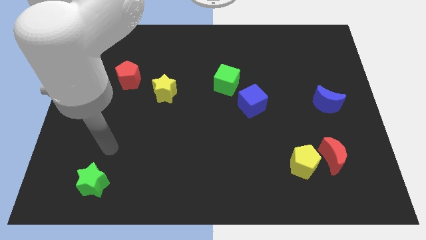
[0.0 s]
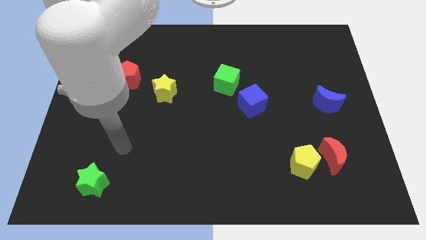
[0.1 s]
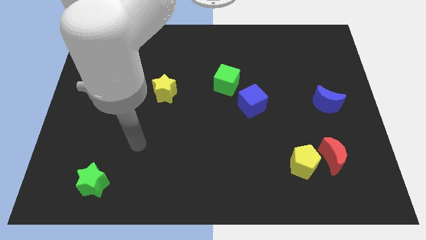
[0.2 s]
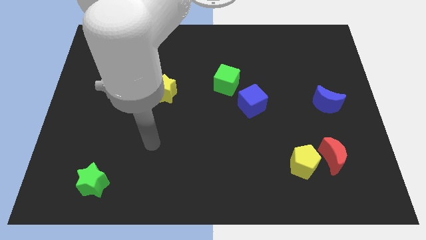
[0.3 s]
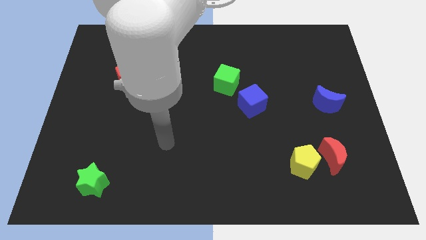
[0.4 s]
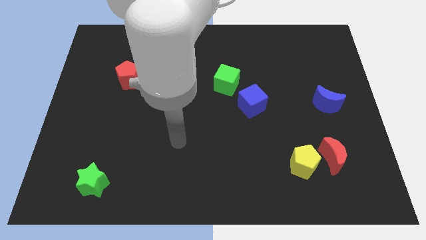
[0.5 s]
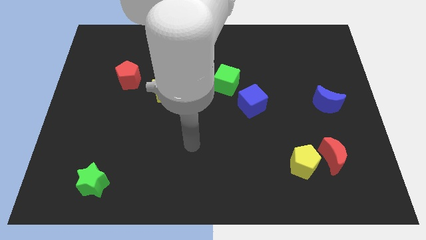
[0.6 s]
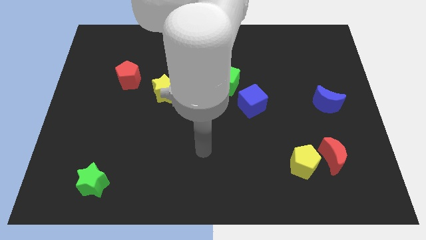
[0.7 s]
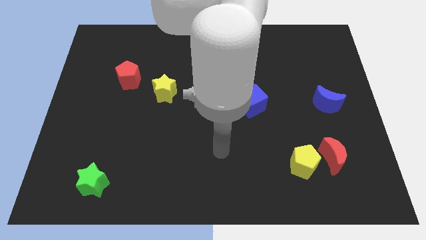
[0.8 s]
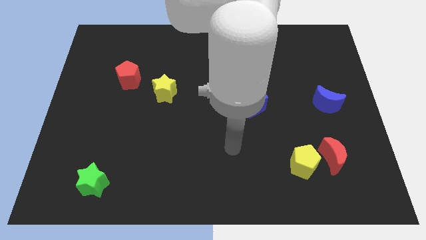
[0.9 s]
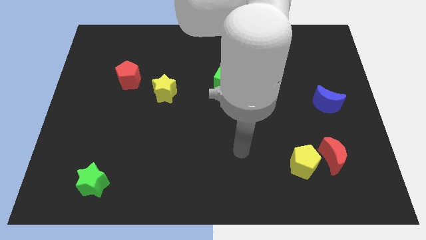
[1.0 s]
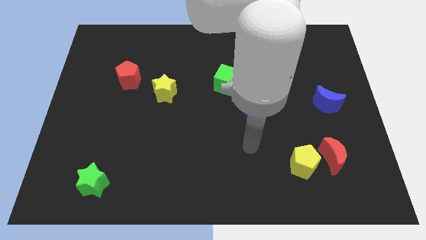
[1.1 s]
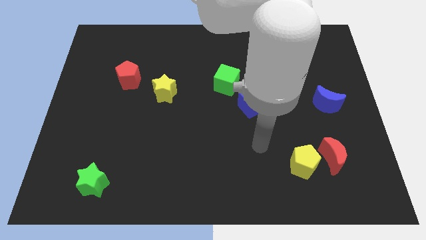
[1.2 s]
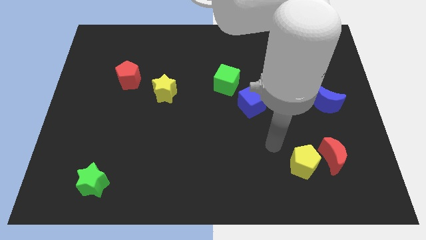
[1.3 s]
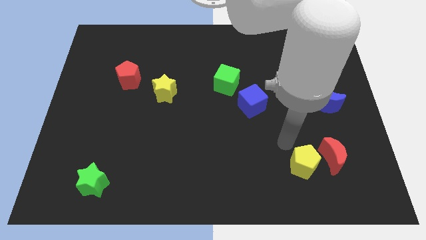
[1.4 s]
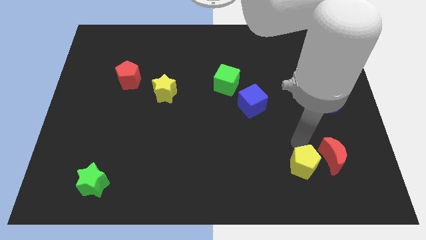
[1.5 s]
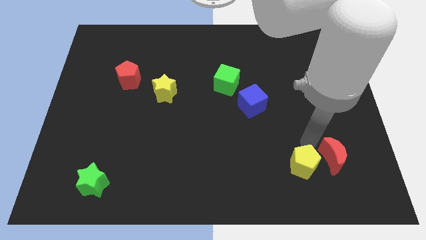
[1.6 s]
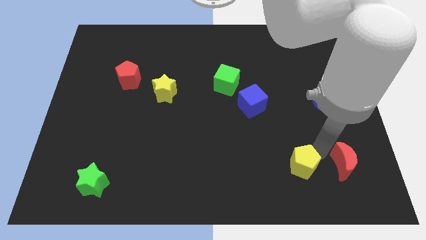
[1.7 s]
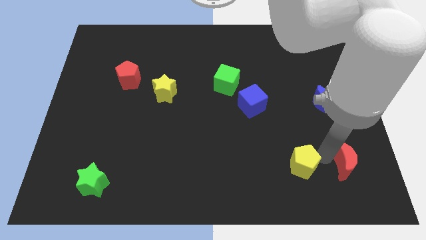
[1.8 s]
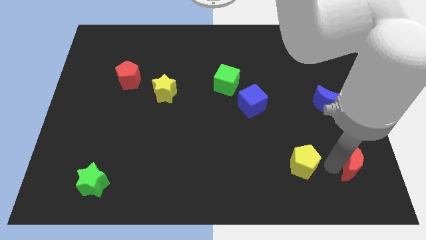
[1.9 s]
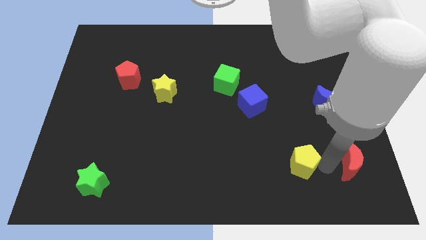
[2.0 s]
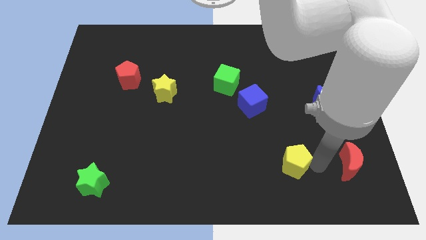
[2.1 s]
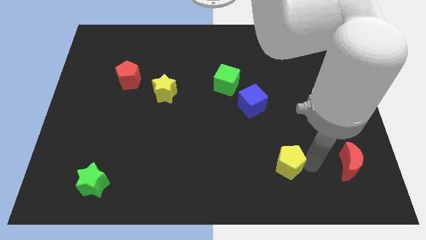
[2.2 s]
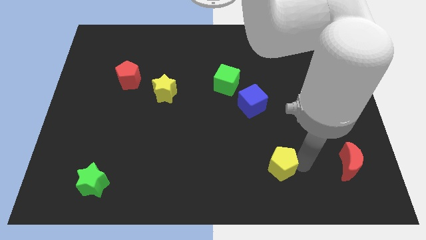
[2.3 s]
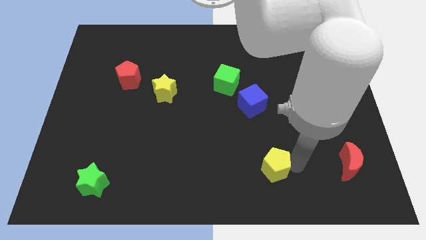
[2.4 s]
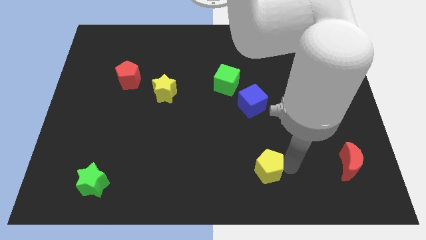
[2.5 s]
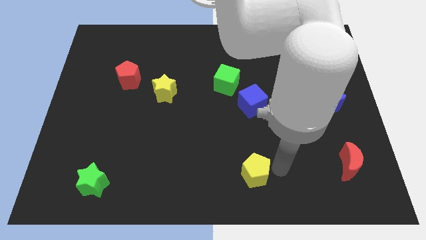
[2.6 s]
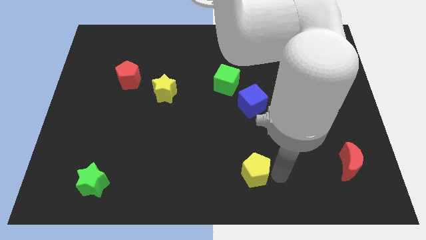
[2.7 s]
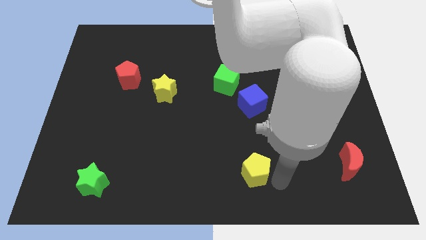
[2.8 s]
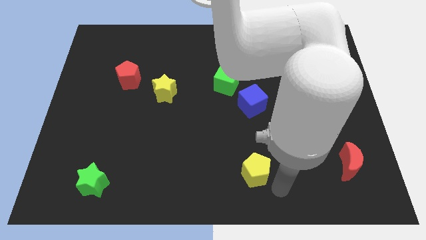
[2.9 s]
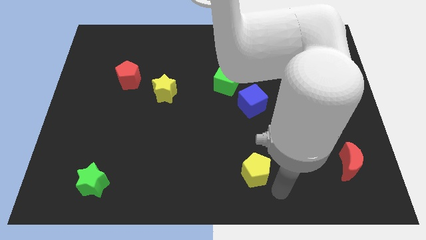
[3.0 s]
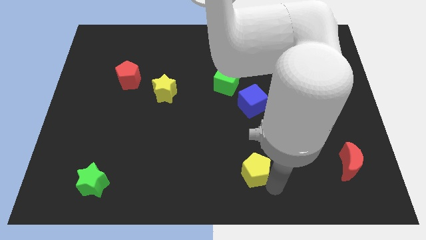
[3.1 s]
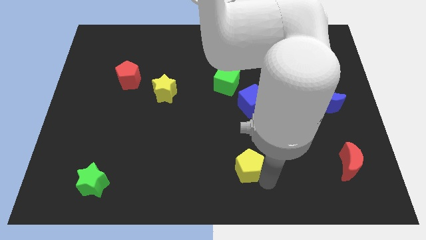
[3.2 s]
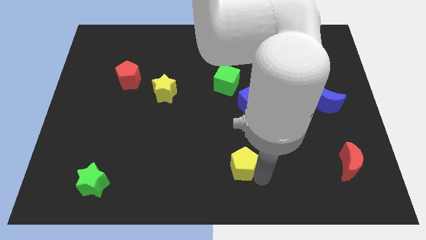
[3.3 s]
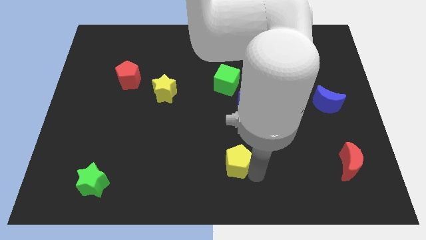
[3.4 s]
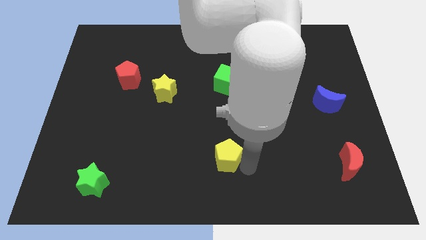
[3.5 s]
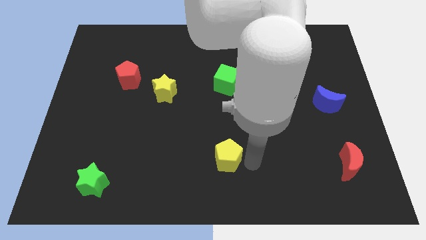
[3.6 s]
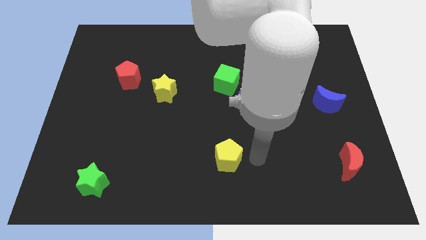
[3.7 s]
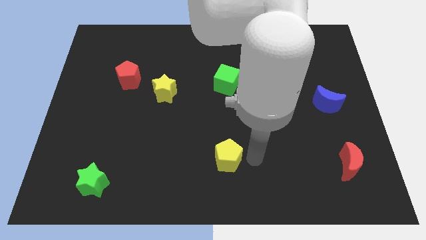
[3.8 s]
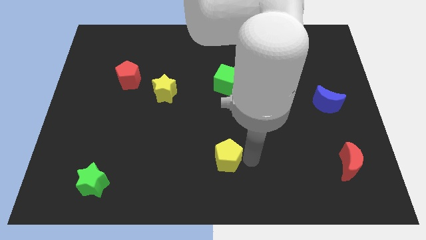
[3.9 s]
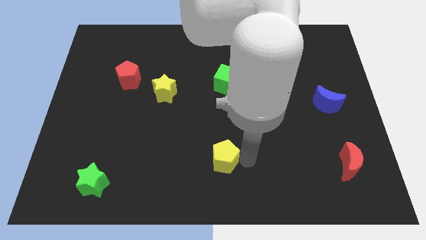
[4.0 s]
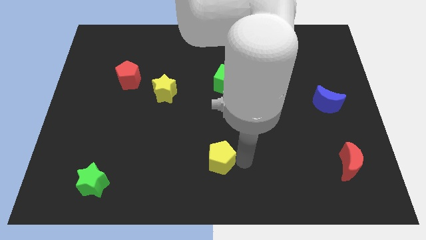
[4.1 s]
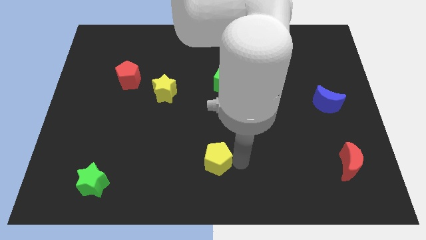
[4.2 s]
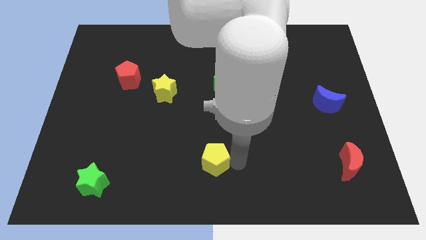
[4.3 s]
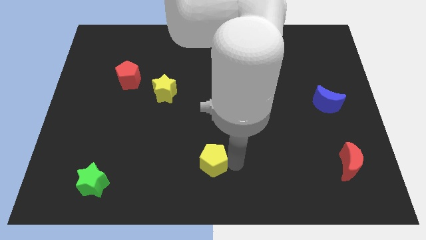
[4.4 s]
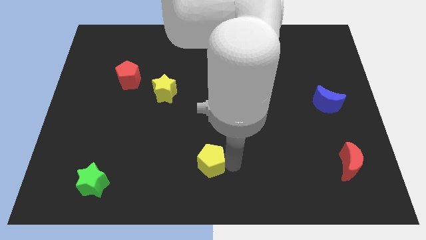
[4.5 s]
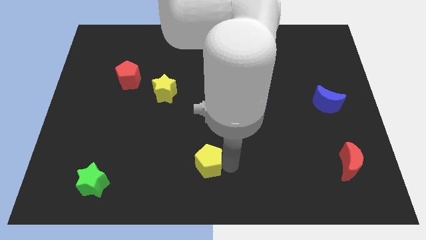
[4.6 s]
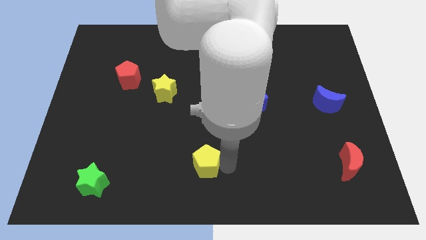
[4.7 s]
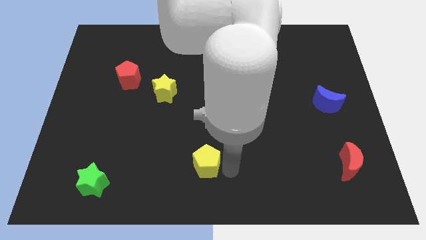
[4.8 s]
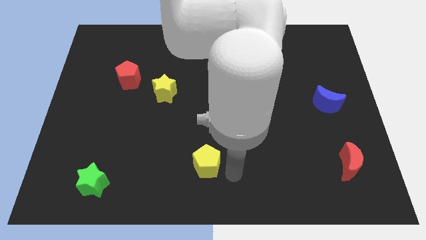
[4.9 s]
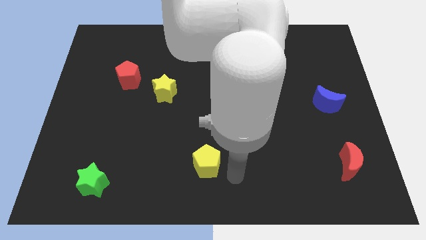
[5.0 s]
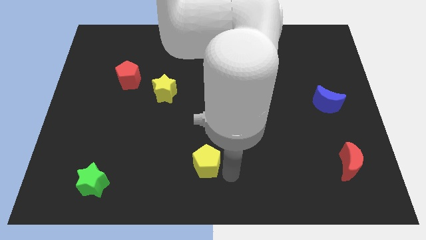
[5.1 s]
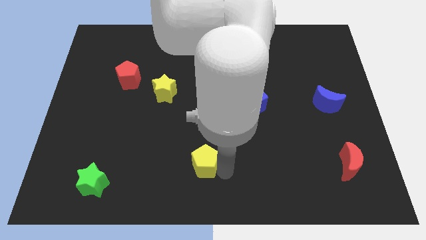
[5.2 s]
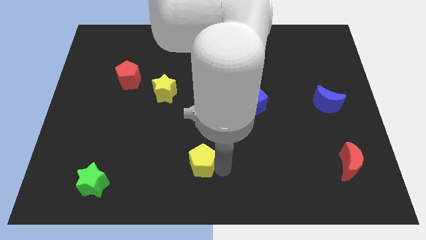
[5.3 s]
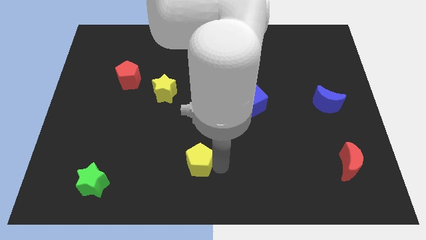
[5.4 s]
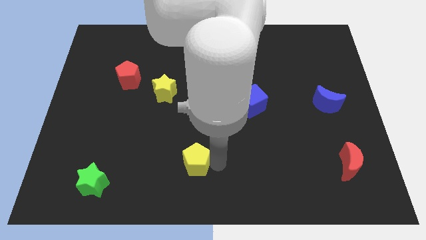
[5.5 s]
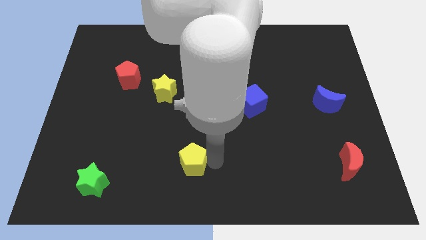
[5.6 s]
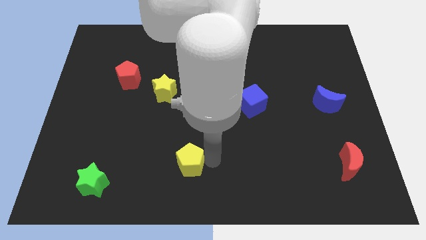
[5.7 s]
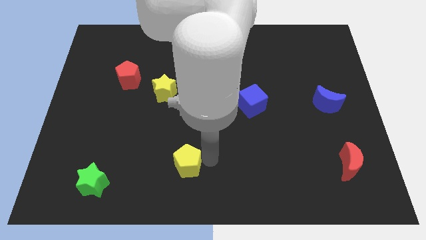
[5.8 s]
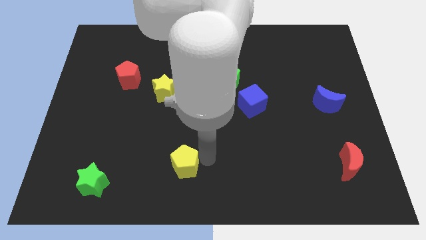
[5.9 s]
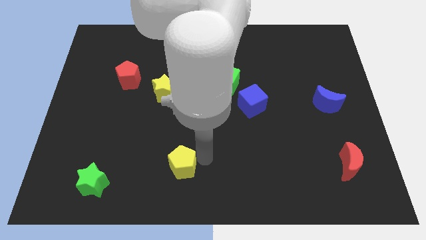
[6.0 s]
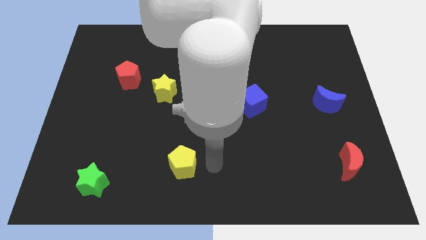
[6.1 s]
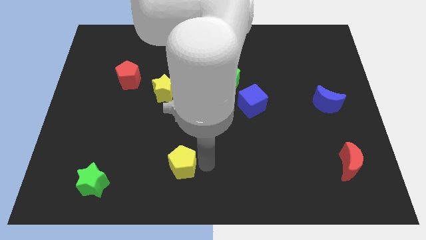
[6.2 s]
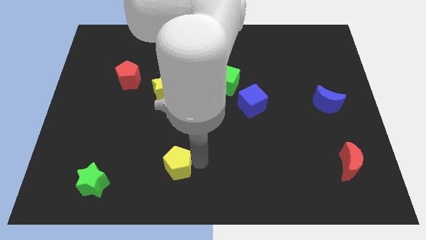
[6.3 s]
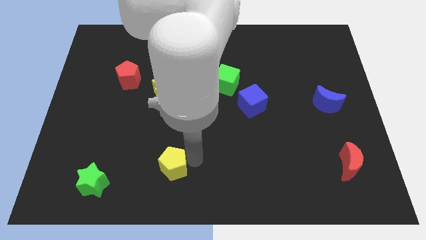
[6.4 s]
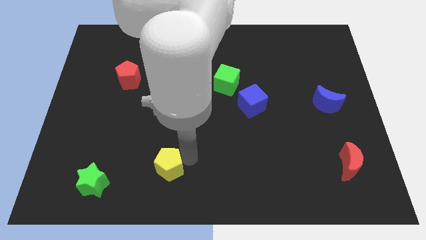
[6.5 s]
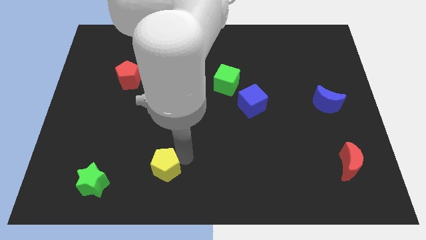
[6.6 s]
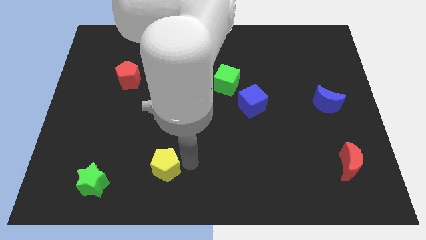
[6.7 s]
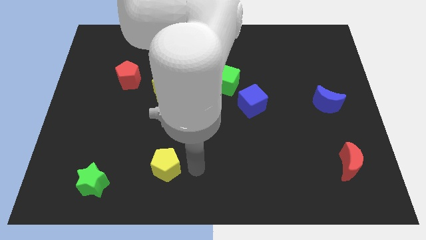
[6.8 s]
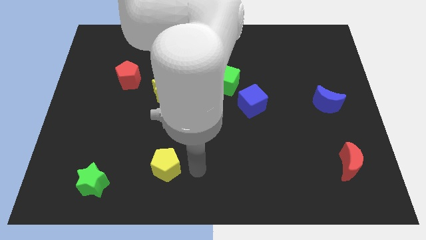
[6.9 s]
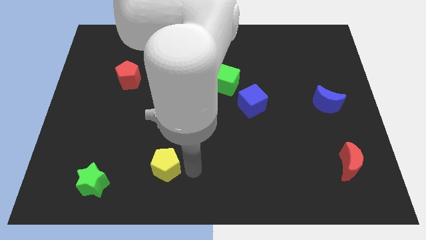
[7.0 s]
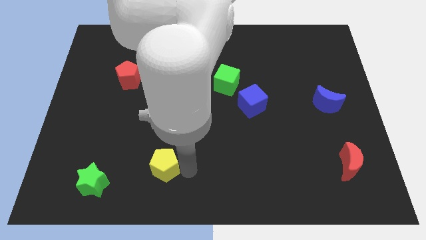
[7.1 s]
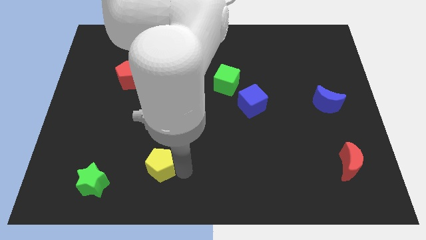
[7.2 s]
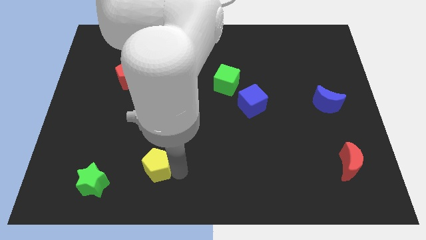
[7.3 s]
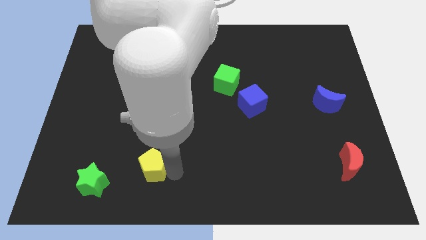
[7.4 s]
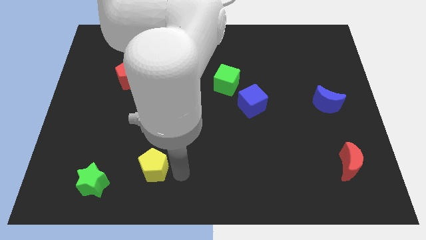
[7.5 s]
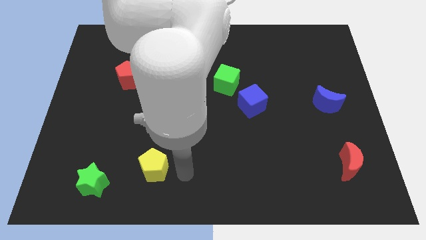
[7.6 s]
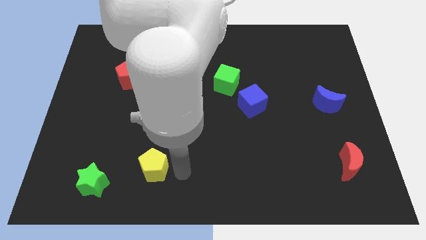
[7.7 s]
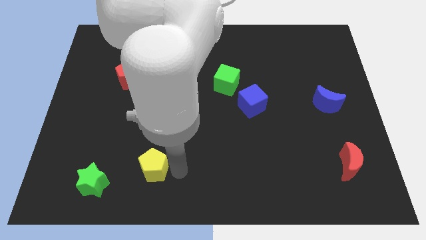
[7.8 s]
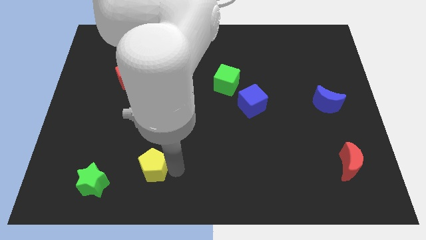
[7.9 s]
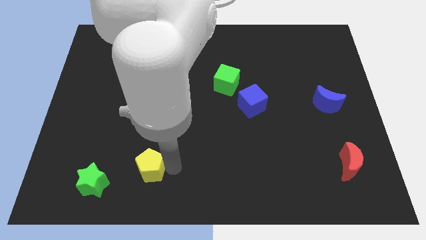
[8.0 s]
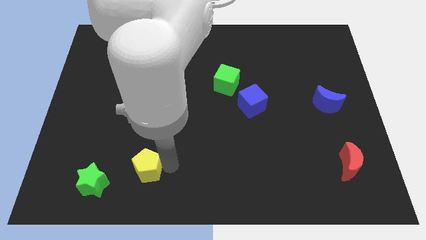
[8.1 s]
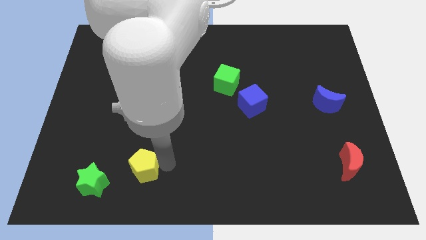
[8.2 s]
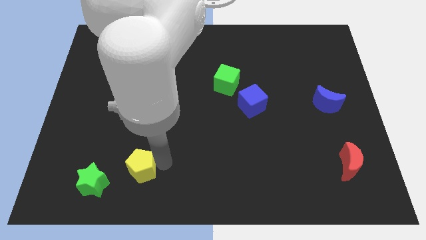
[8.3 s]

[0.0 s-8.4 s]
push the yellow pentagon diagonally up and to the right of the green star
